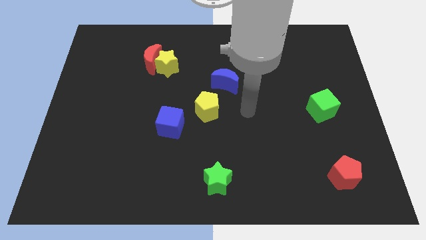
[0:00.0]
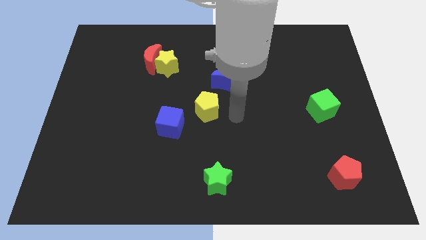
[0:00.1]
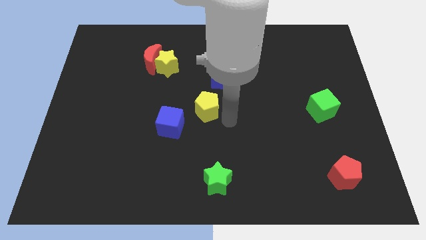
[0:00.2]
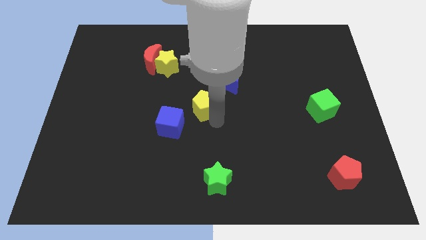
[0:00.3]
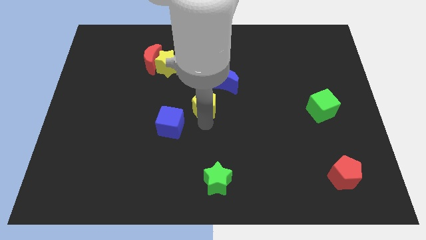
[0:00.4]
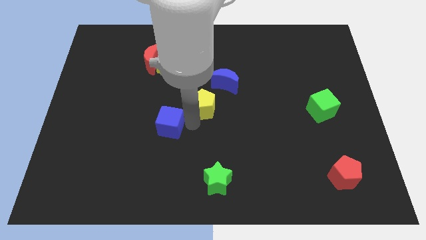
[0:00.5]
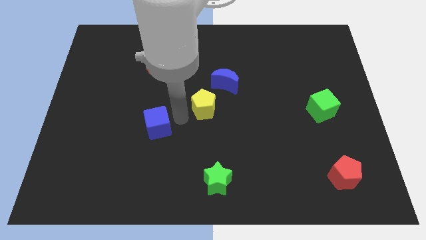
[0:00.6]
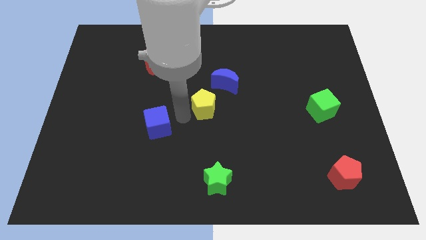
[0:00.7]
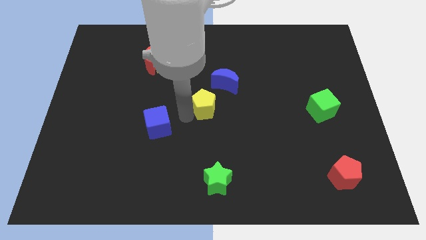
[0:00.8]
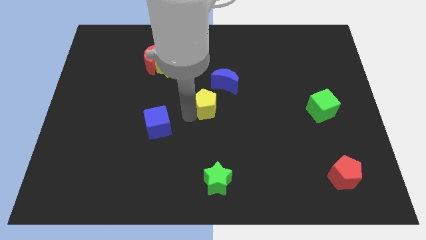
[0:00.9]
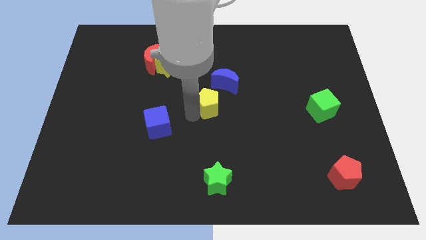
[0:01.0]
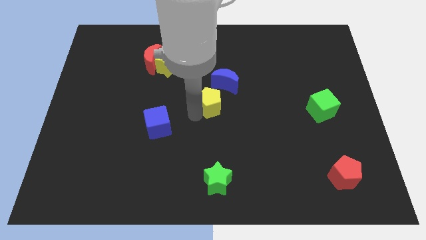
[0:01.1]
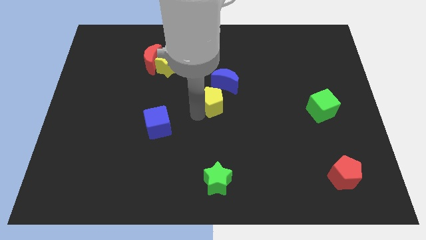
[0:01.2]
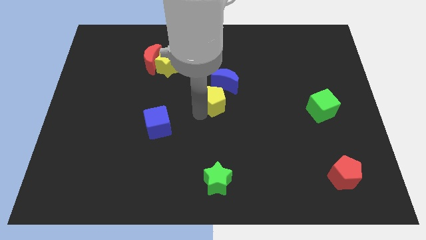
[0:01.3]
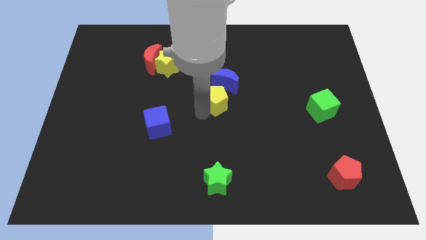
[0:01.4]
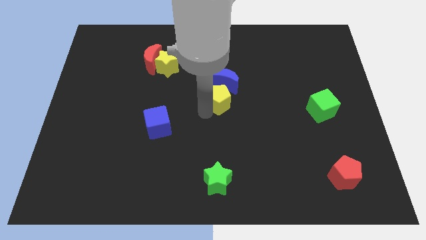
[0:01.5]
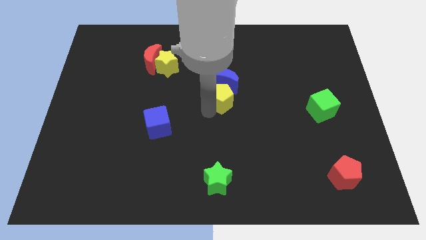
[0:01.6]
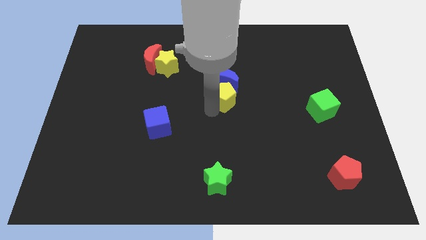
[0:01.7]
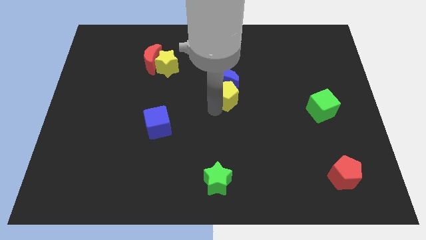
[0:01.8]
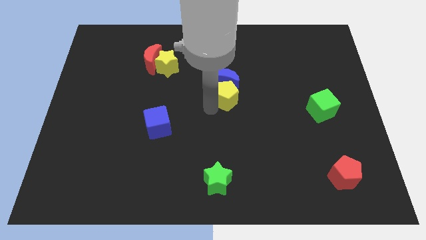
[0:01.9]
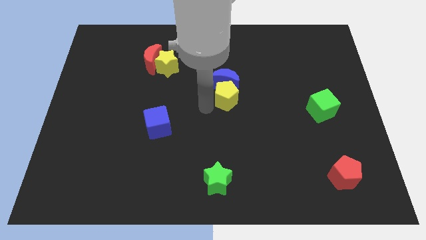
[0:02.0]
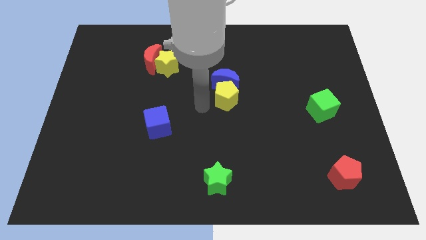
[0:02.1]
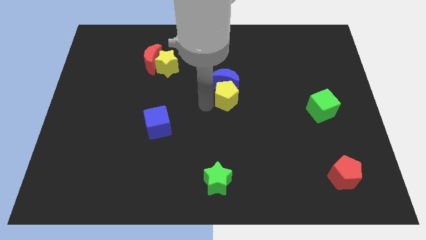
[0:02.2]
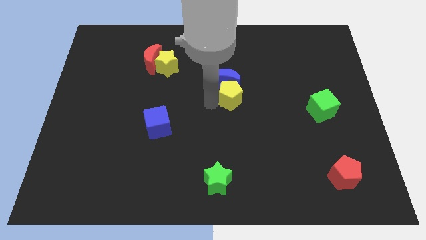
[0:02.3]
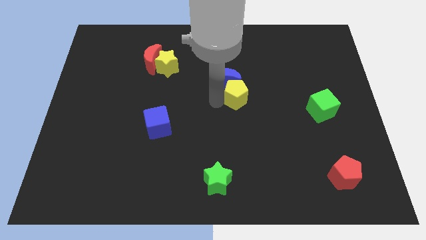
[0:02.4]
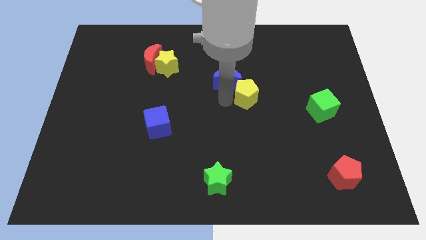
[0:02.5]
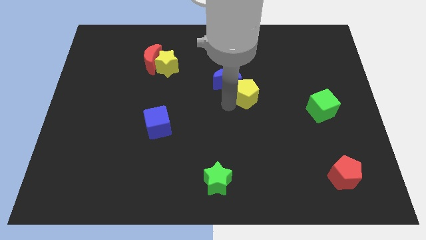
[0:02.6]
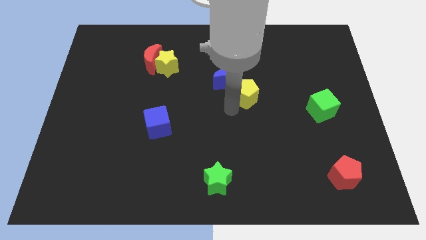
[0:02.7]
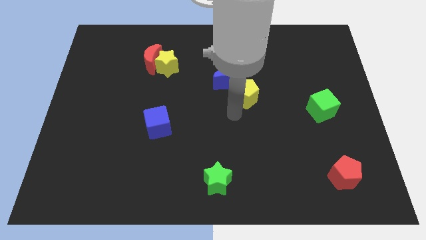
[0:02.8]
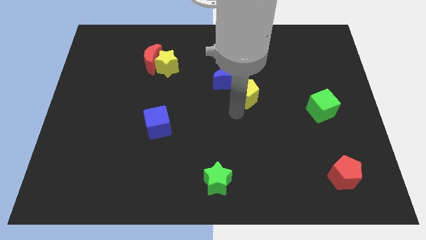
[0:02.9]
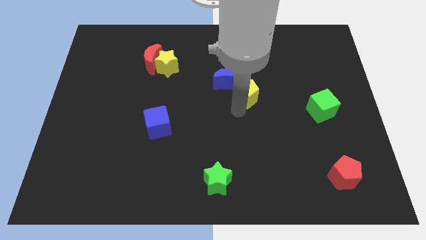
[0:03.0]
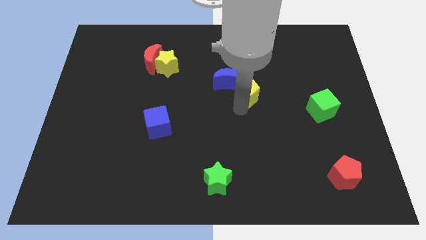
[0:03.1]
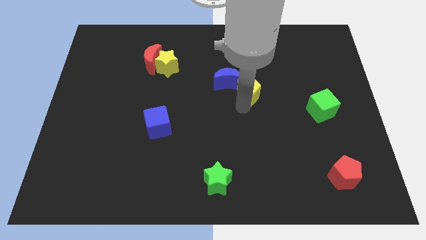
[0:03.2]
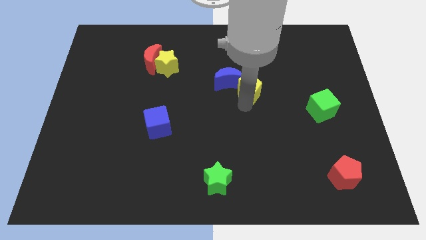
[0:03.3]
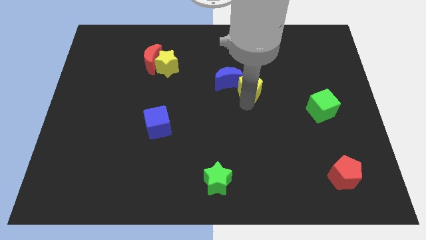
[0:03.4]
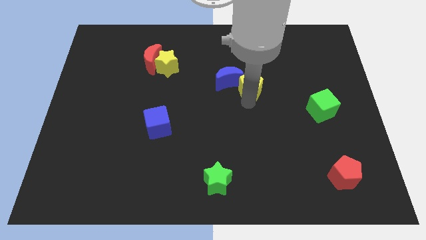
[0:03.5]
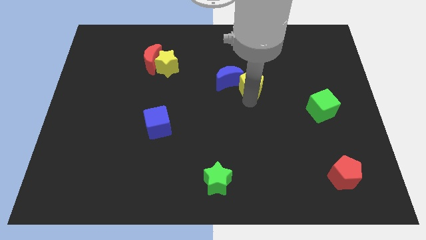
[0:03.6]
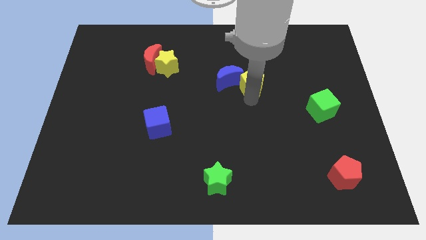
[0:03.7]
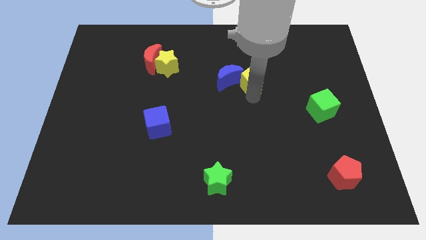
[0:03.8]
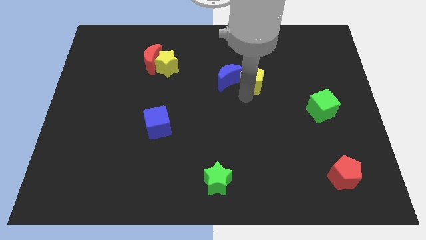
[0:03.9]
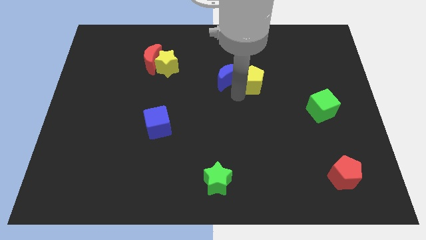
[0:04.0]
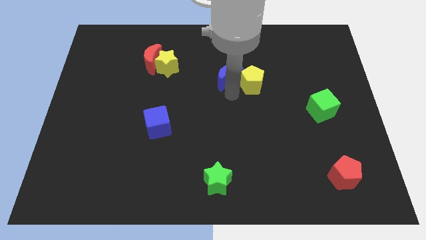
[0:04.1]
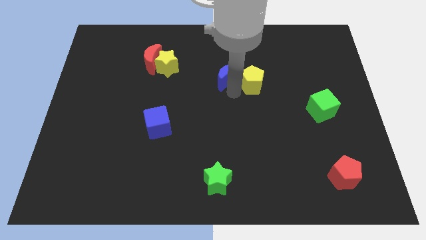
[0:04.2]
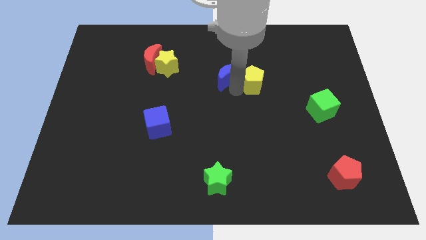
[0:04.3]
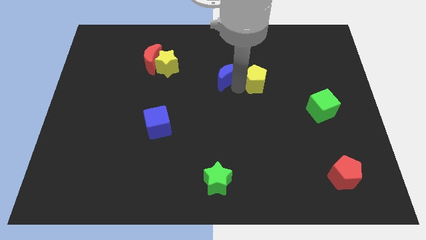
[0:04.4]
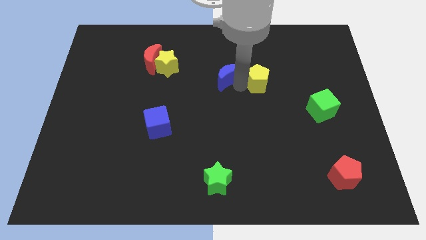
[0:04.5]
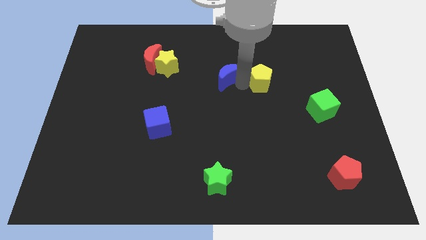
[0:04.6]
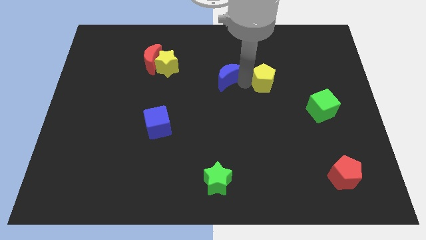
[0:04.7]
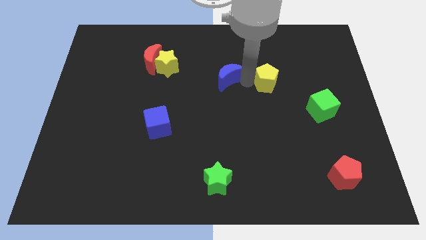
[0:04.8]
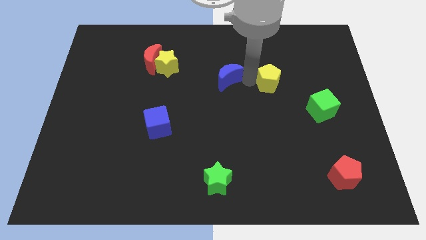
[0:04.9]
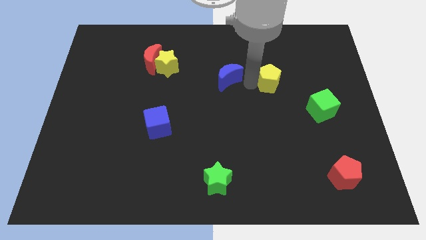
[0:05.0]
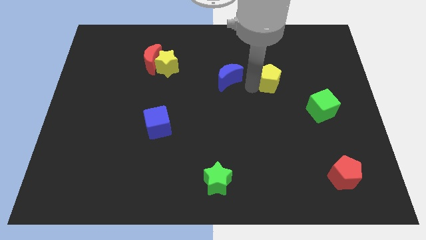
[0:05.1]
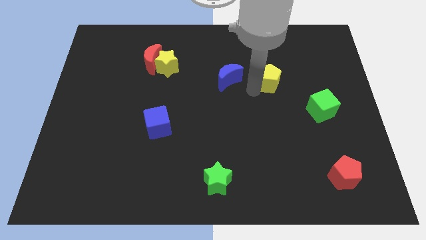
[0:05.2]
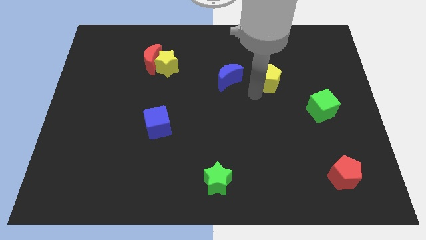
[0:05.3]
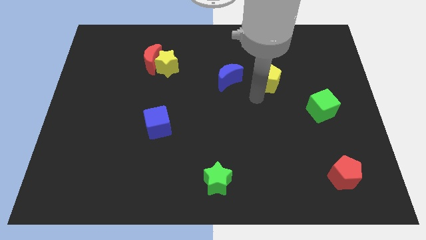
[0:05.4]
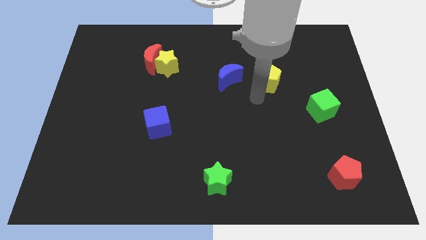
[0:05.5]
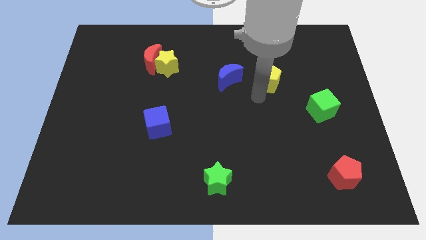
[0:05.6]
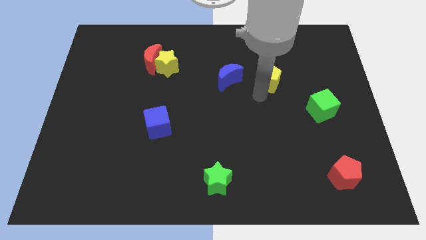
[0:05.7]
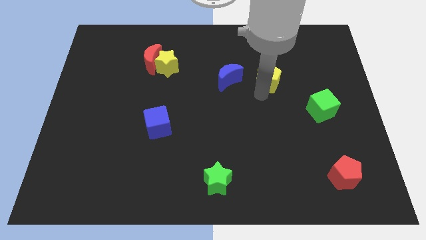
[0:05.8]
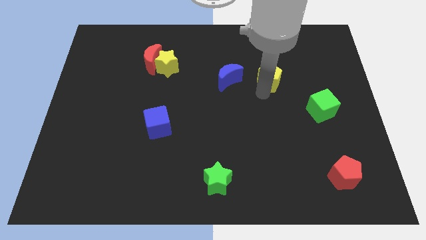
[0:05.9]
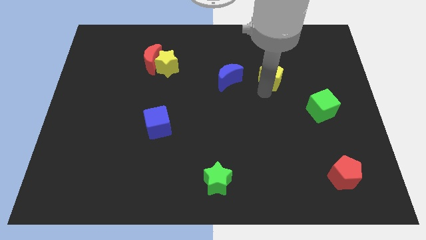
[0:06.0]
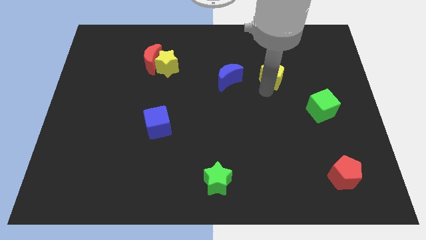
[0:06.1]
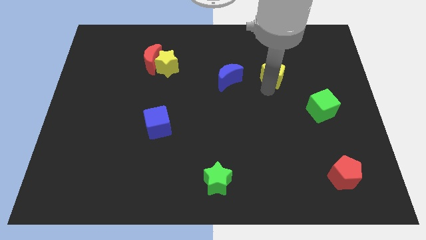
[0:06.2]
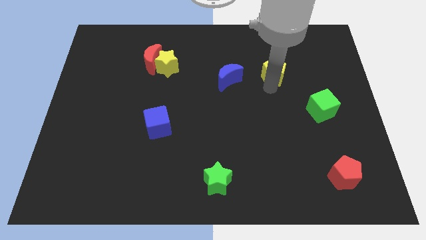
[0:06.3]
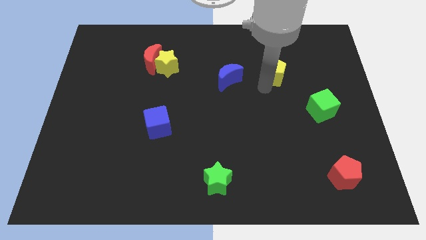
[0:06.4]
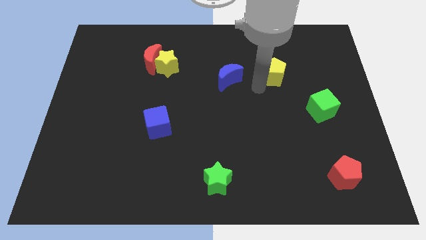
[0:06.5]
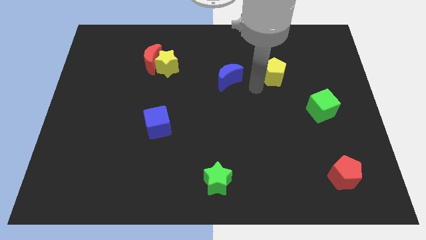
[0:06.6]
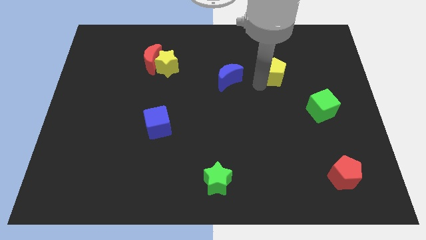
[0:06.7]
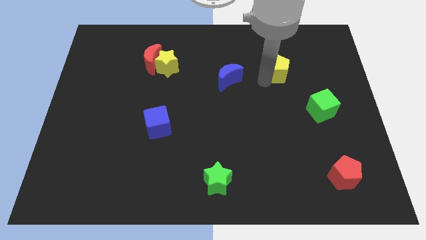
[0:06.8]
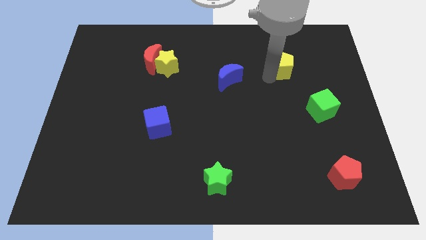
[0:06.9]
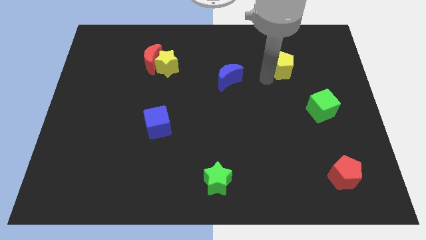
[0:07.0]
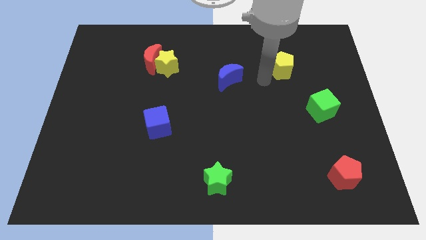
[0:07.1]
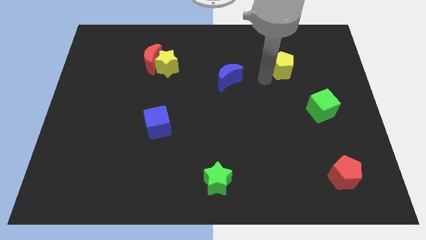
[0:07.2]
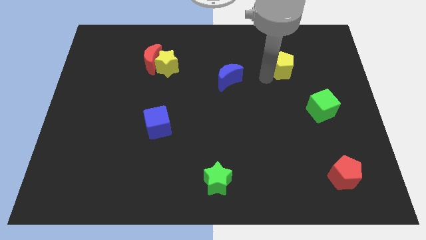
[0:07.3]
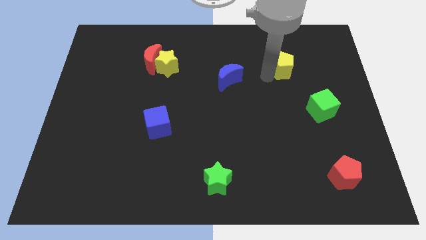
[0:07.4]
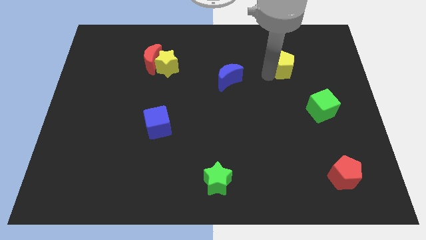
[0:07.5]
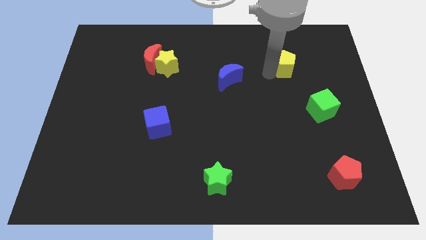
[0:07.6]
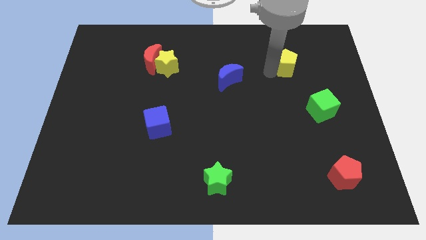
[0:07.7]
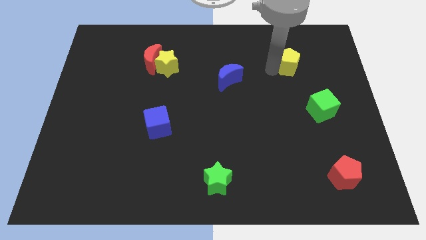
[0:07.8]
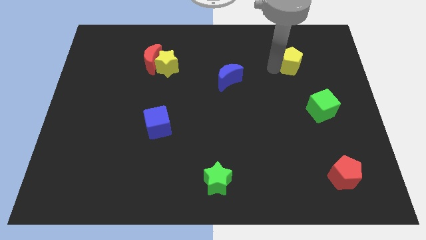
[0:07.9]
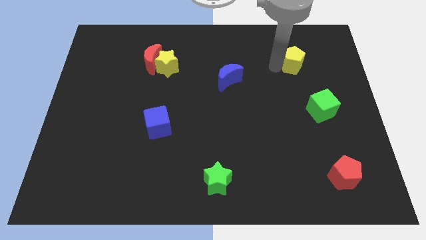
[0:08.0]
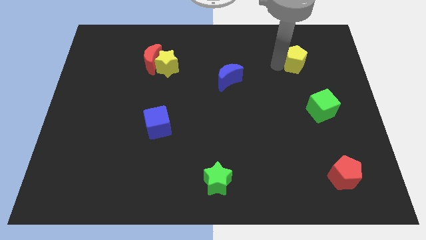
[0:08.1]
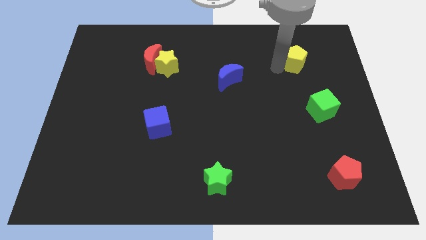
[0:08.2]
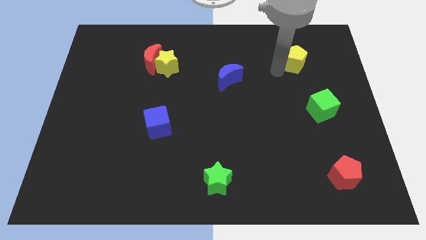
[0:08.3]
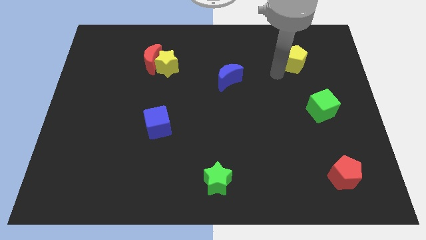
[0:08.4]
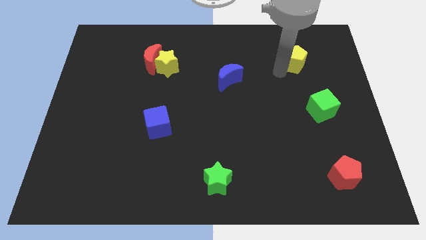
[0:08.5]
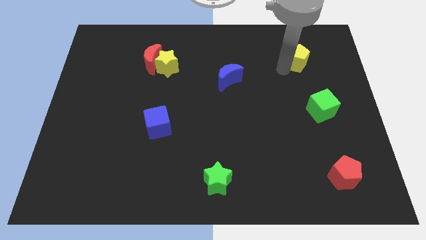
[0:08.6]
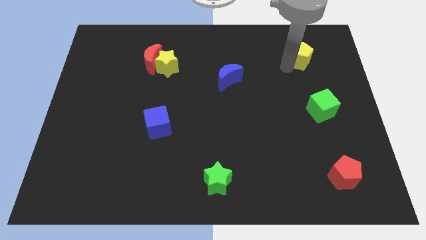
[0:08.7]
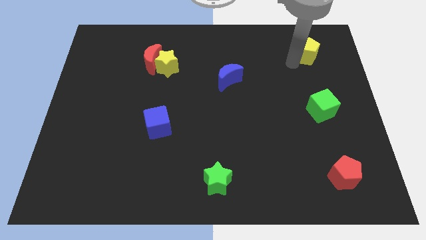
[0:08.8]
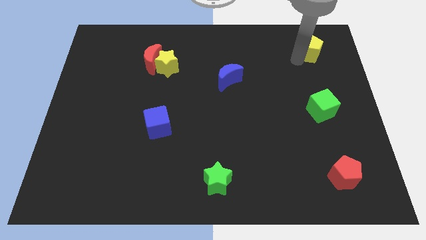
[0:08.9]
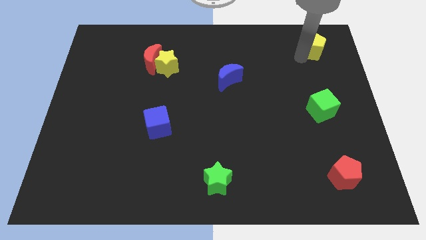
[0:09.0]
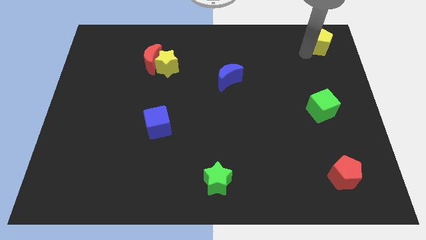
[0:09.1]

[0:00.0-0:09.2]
push the yellow pentagon to the upper right corner
